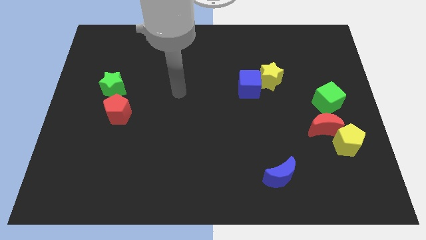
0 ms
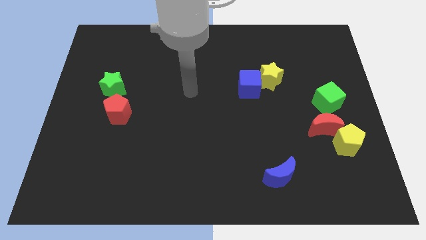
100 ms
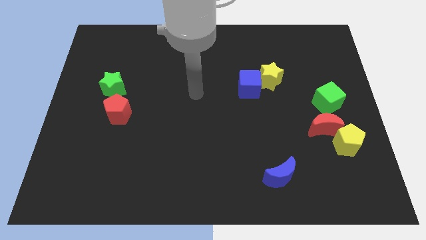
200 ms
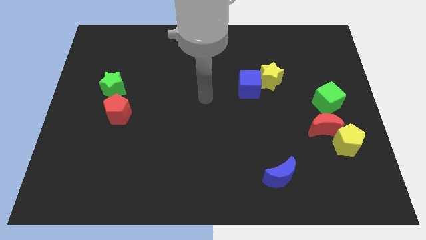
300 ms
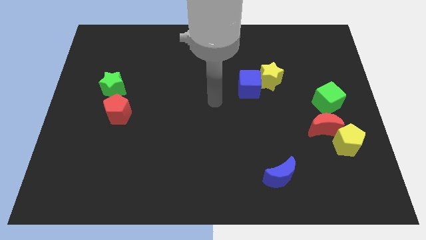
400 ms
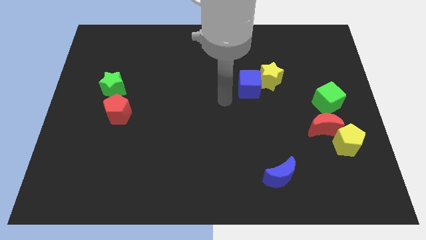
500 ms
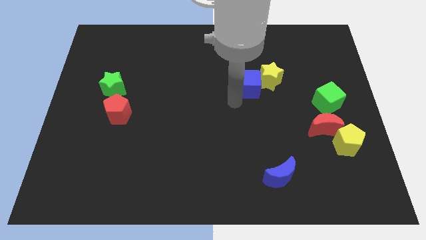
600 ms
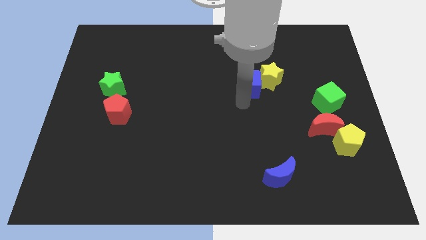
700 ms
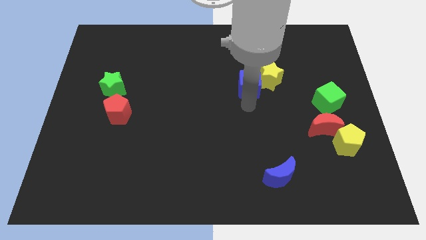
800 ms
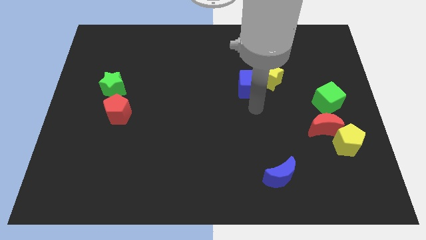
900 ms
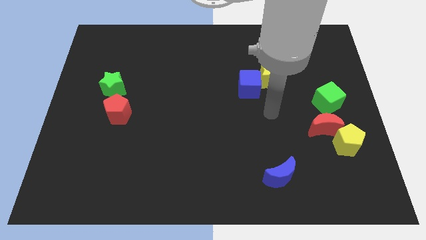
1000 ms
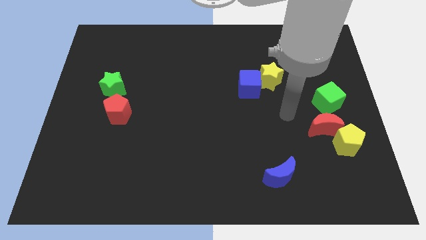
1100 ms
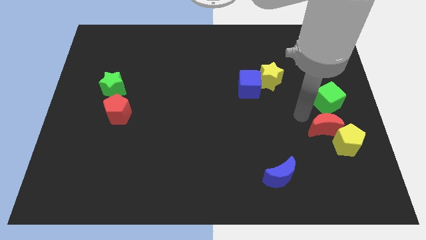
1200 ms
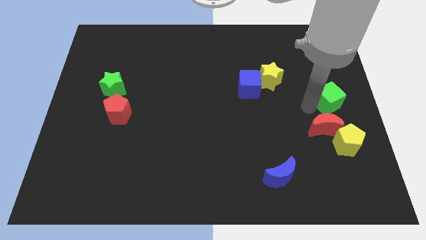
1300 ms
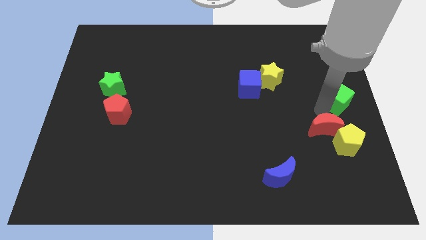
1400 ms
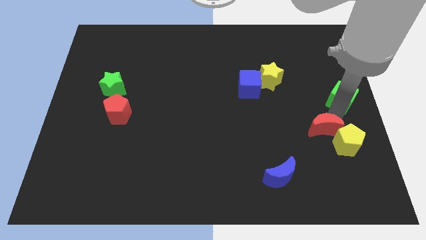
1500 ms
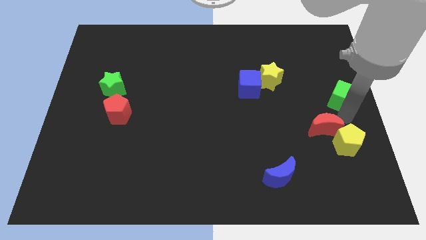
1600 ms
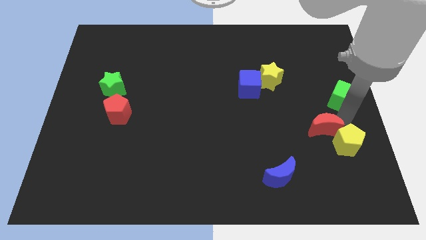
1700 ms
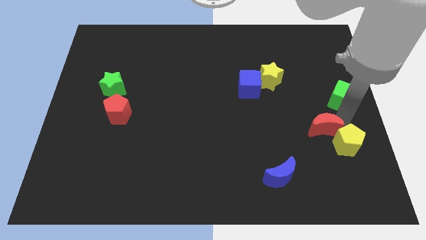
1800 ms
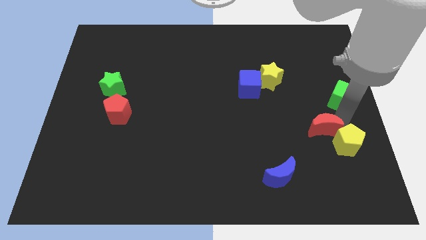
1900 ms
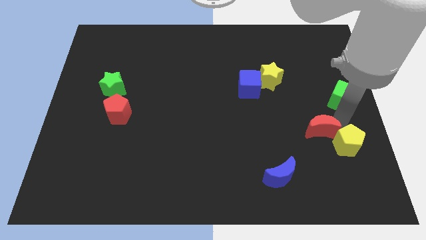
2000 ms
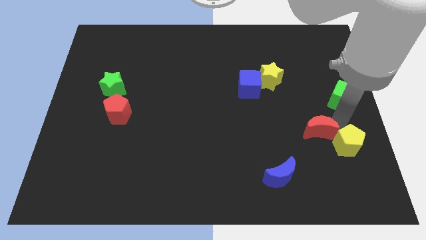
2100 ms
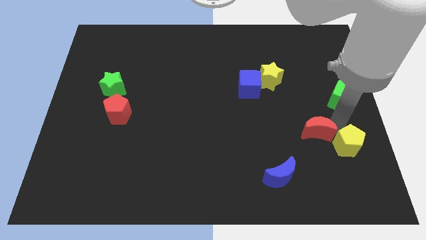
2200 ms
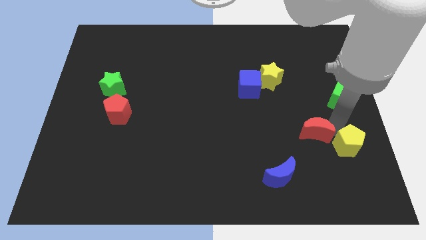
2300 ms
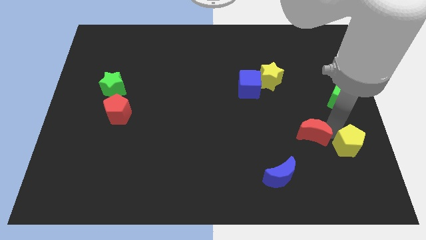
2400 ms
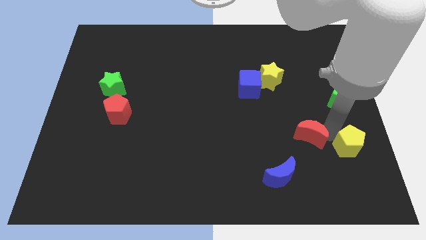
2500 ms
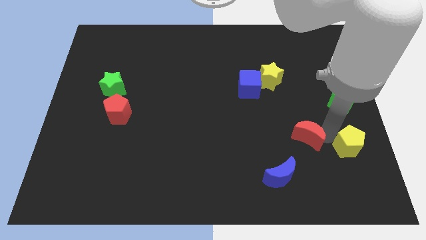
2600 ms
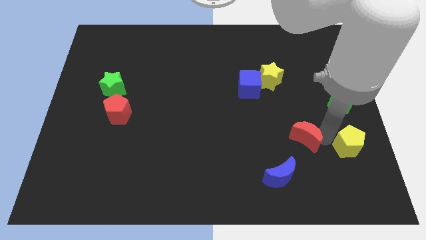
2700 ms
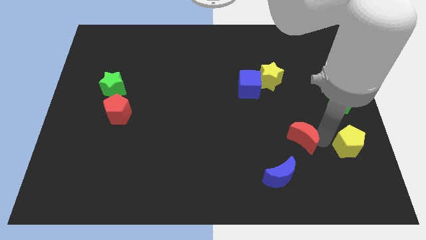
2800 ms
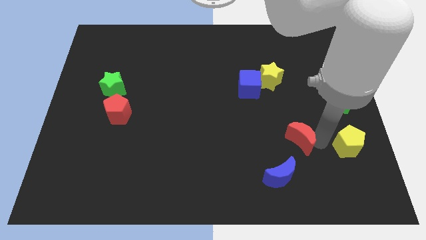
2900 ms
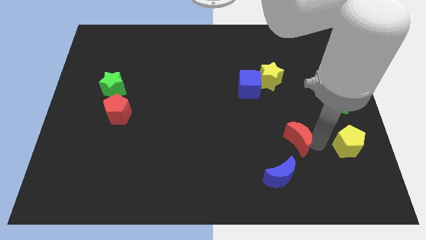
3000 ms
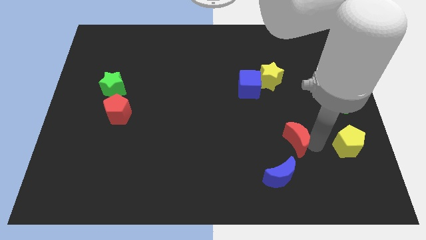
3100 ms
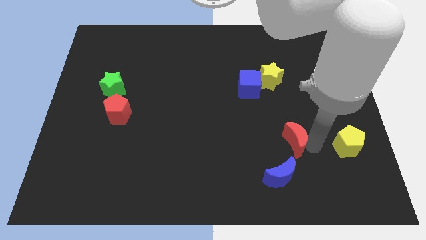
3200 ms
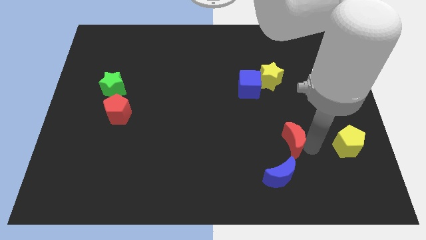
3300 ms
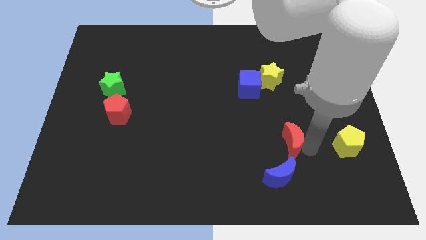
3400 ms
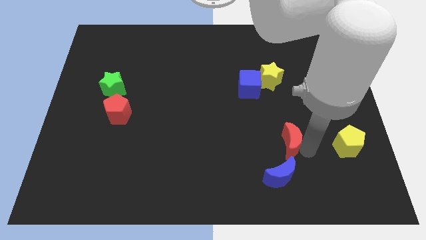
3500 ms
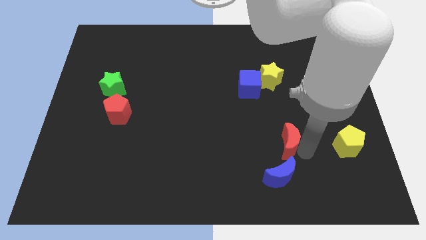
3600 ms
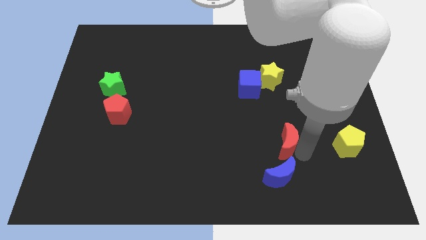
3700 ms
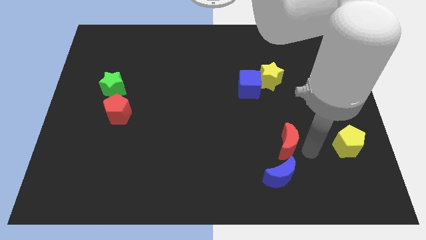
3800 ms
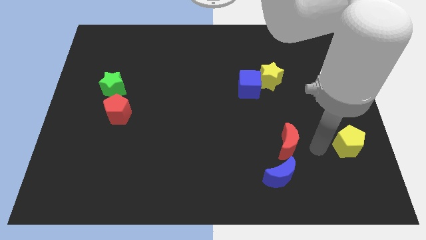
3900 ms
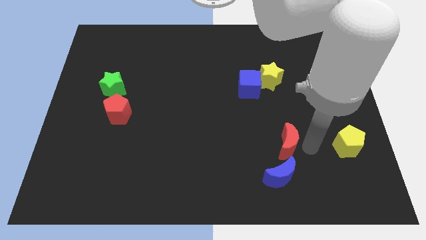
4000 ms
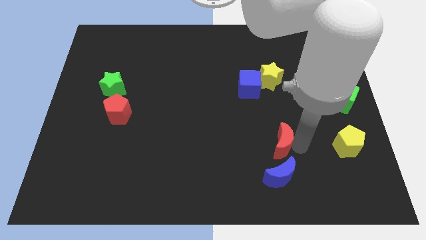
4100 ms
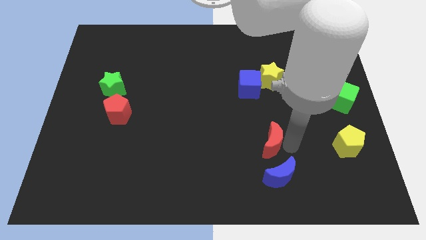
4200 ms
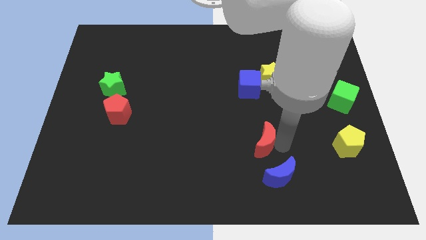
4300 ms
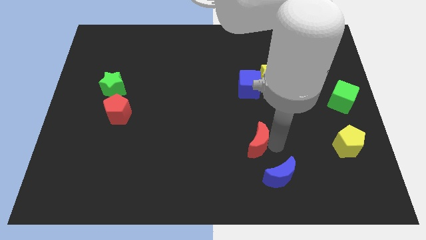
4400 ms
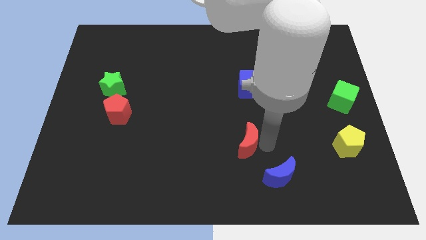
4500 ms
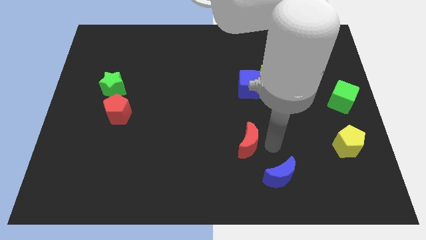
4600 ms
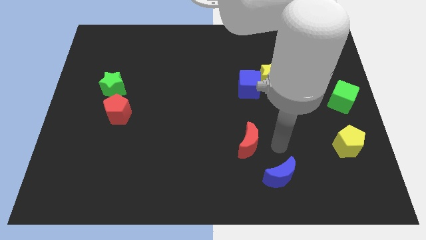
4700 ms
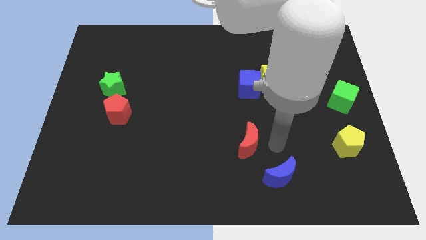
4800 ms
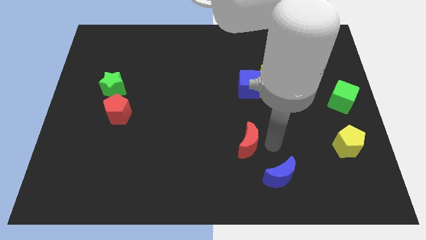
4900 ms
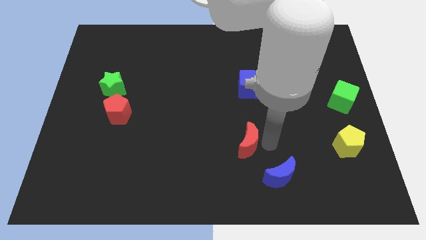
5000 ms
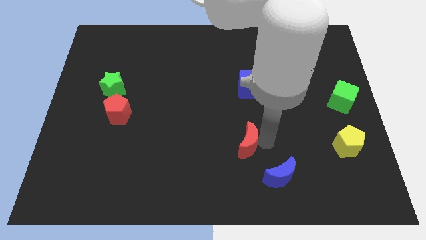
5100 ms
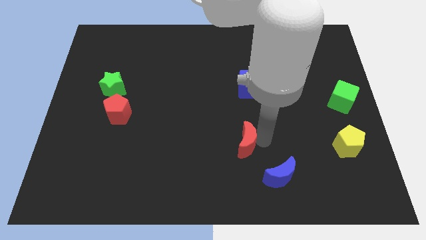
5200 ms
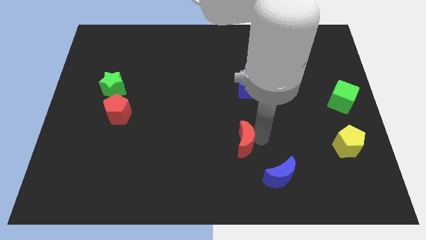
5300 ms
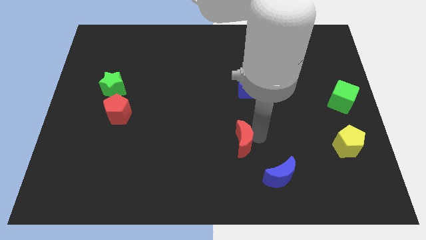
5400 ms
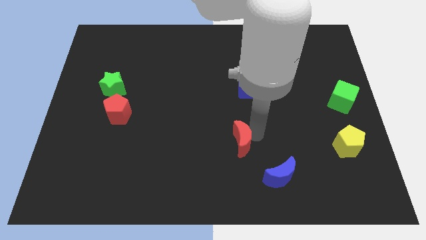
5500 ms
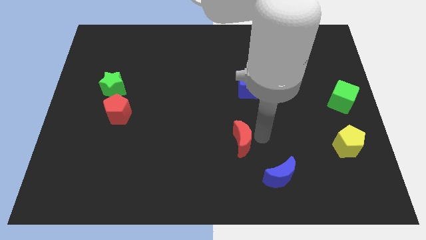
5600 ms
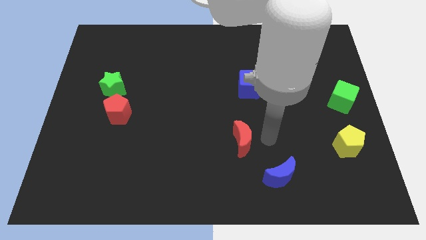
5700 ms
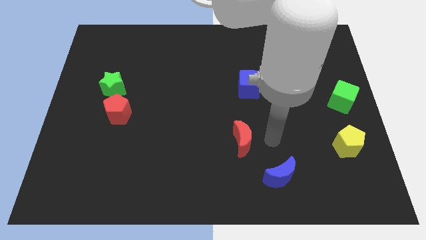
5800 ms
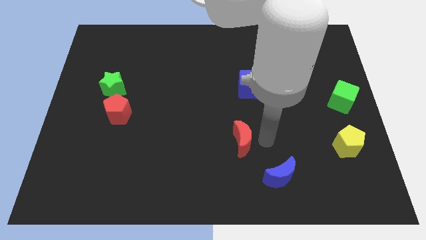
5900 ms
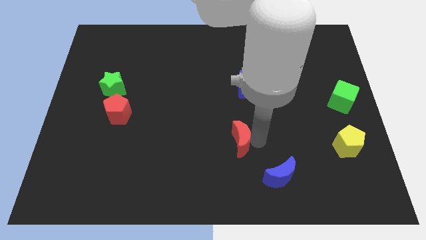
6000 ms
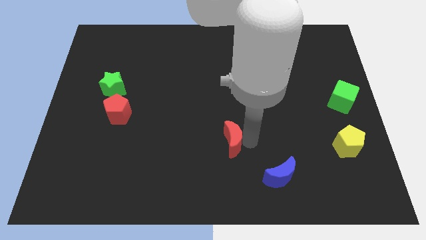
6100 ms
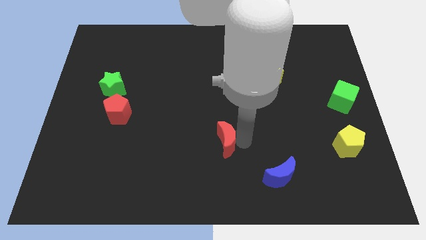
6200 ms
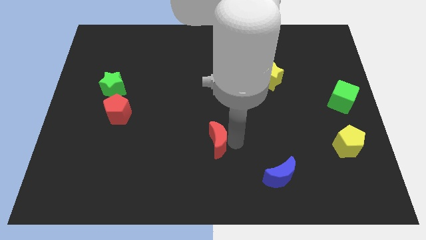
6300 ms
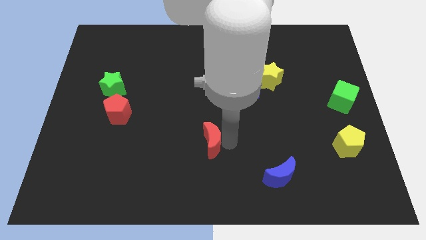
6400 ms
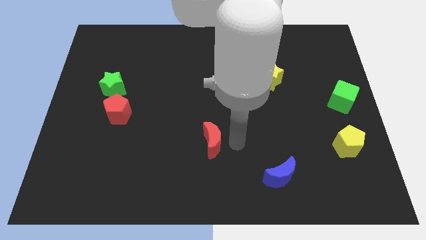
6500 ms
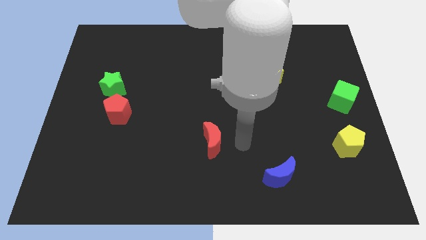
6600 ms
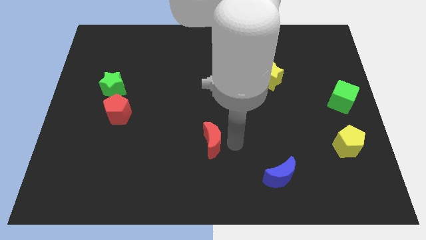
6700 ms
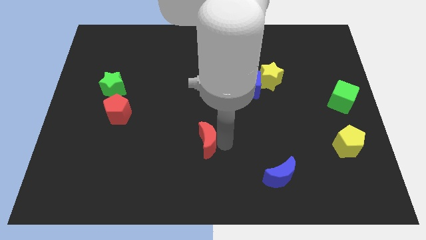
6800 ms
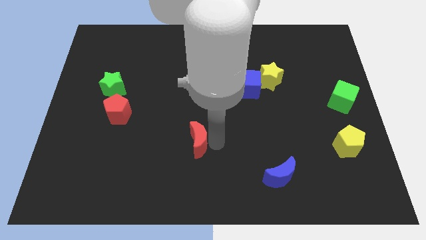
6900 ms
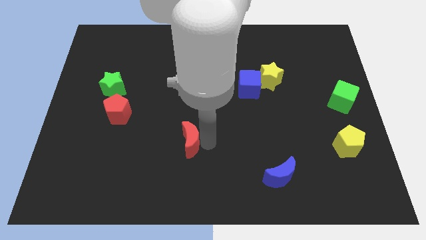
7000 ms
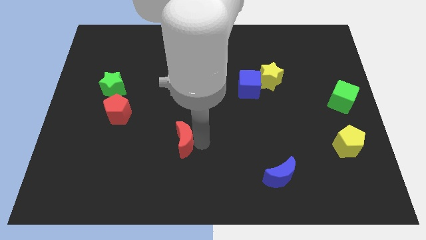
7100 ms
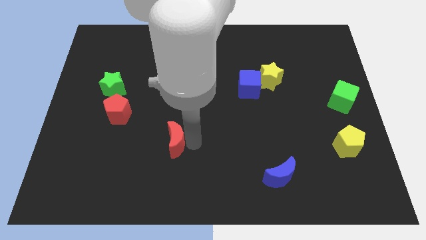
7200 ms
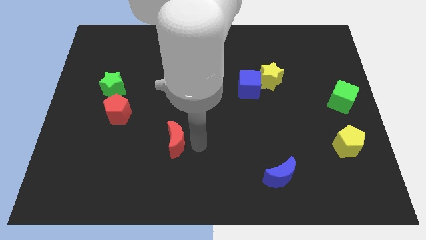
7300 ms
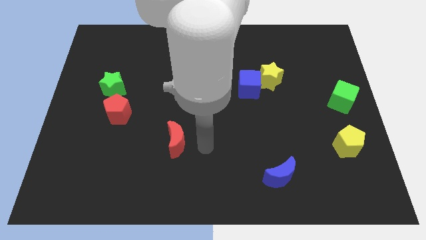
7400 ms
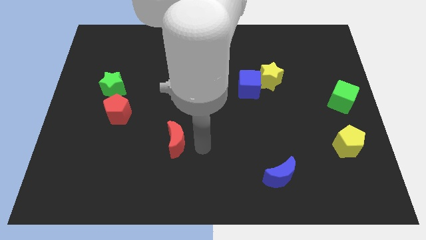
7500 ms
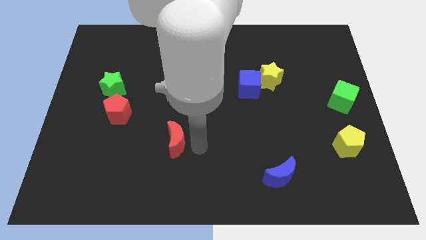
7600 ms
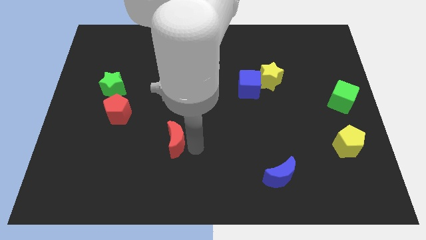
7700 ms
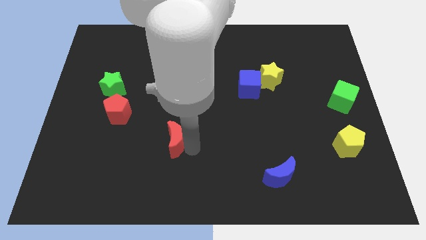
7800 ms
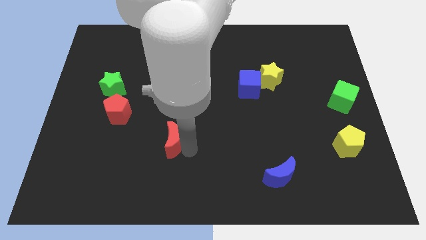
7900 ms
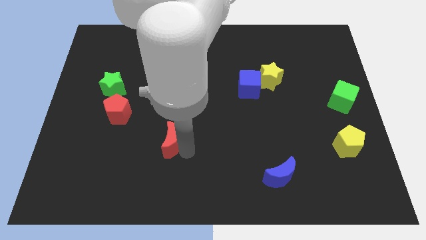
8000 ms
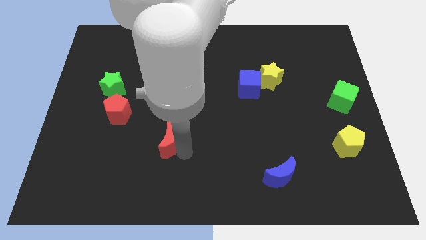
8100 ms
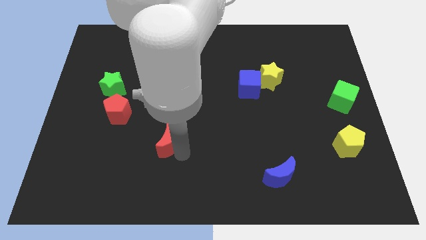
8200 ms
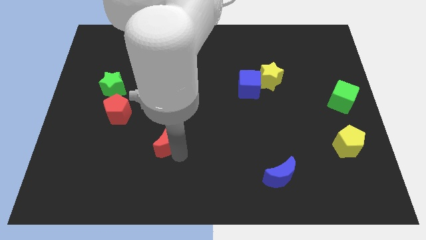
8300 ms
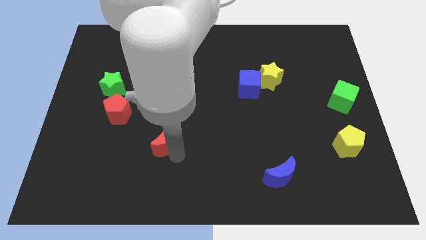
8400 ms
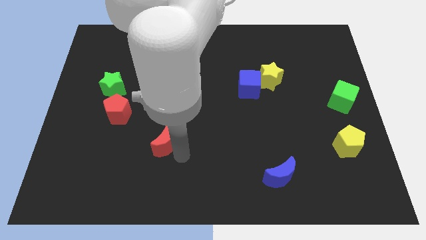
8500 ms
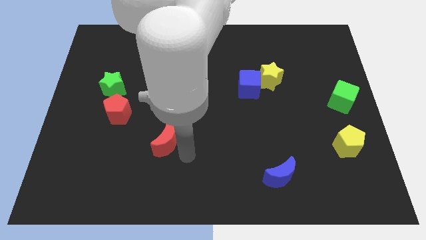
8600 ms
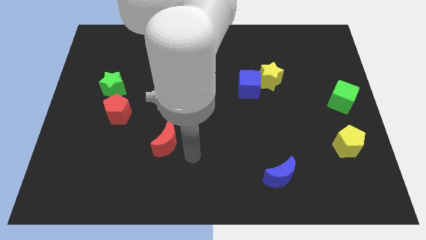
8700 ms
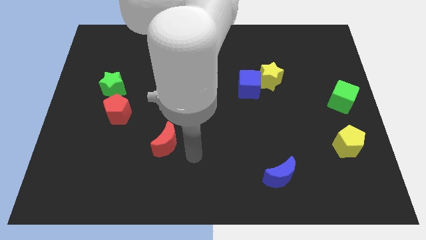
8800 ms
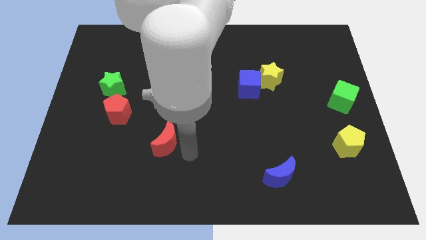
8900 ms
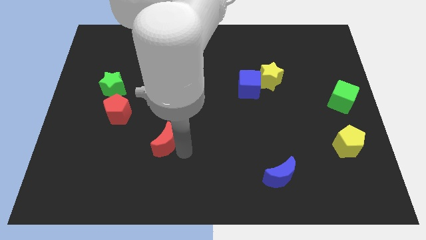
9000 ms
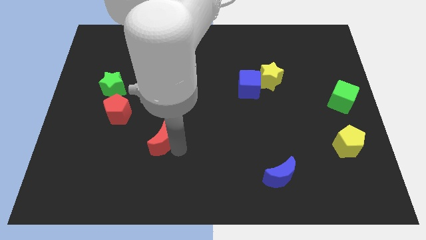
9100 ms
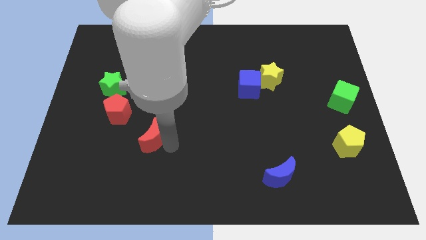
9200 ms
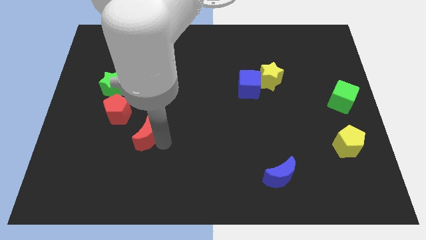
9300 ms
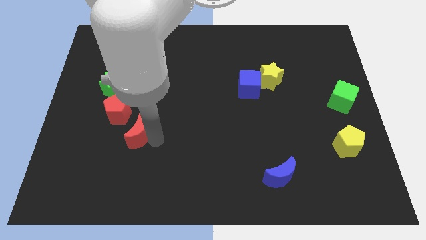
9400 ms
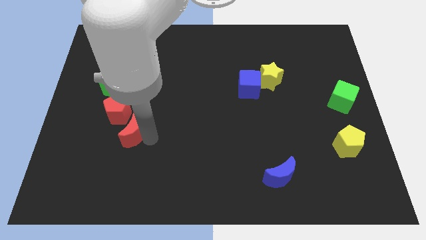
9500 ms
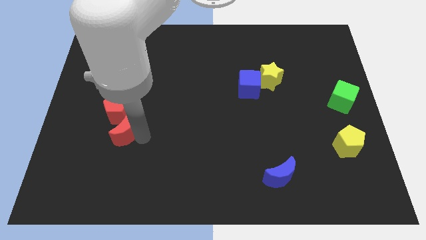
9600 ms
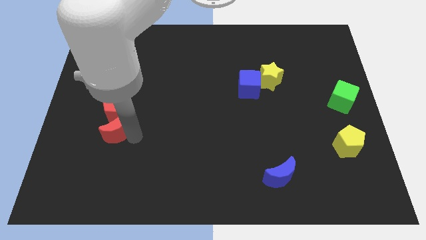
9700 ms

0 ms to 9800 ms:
move the red moon below the green star
